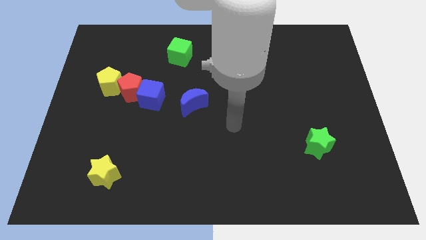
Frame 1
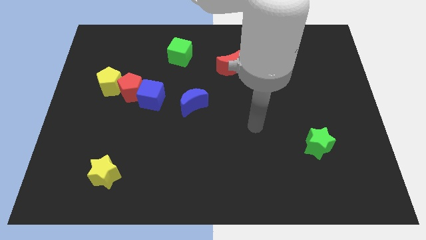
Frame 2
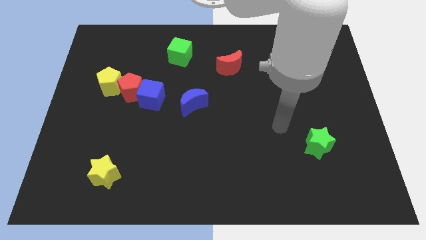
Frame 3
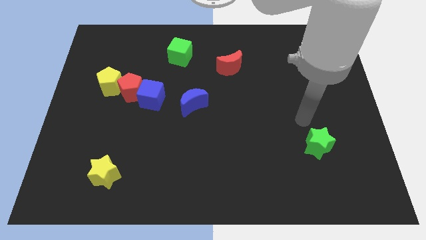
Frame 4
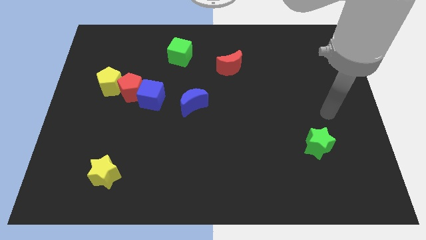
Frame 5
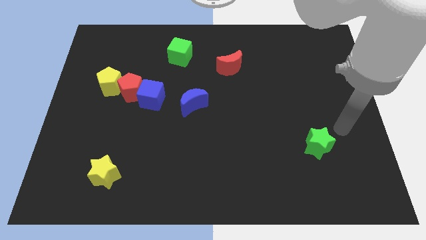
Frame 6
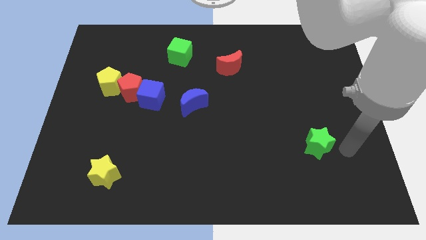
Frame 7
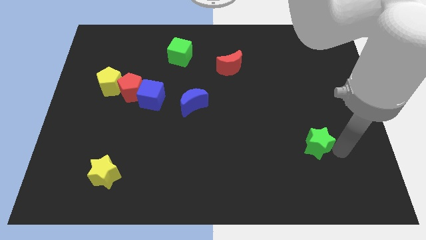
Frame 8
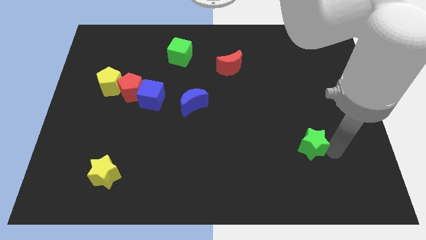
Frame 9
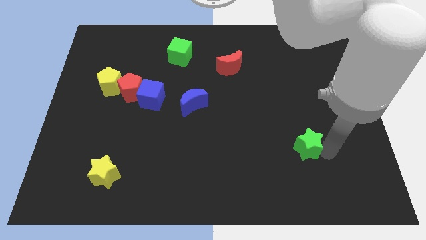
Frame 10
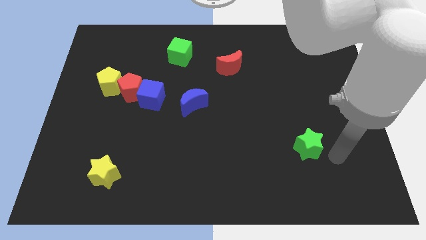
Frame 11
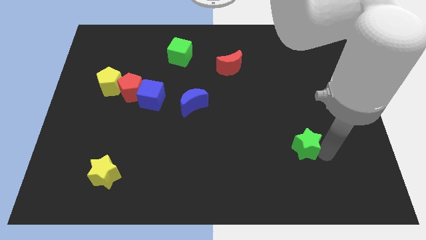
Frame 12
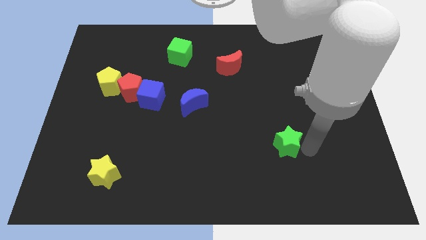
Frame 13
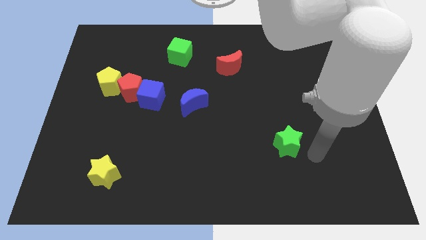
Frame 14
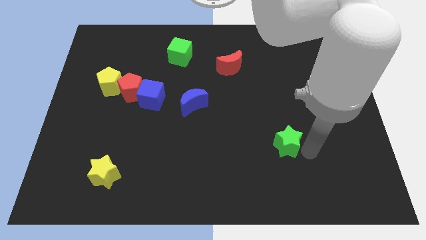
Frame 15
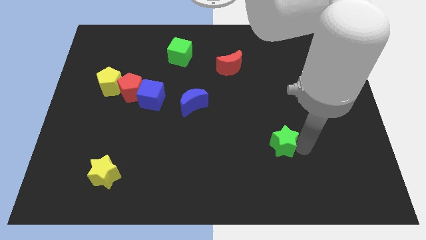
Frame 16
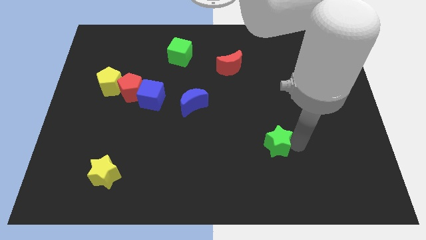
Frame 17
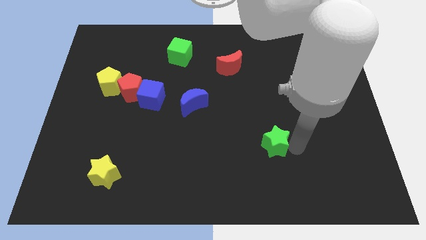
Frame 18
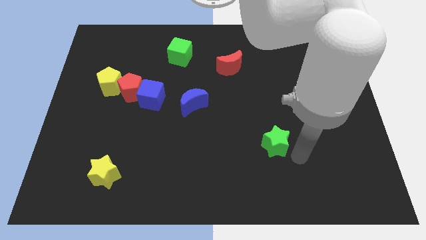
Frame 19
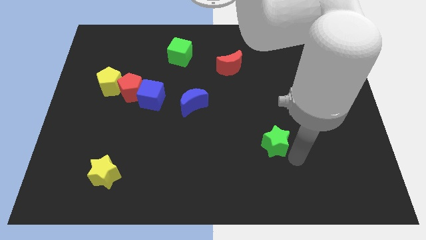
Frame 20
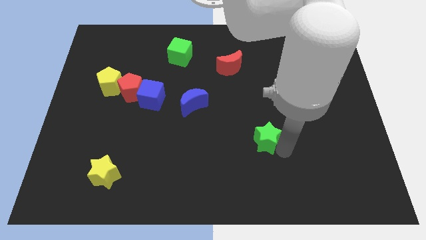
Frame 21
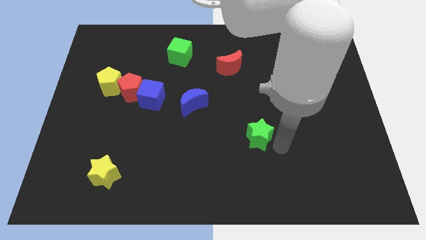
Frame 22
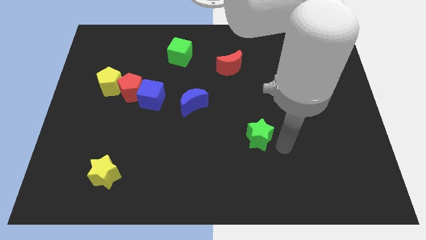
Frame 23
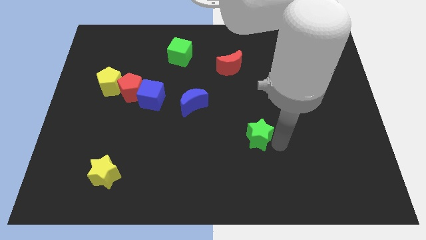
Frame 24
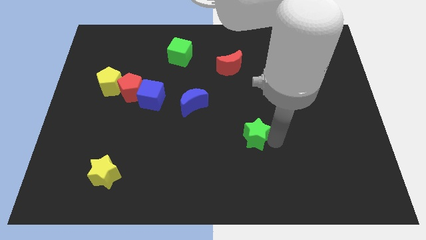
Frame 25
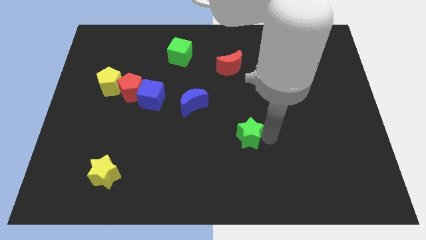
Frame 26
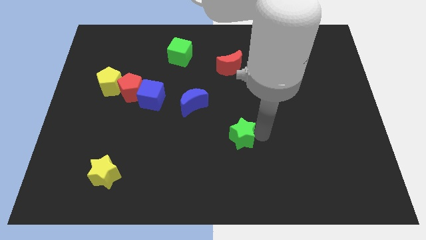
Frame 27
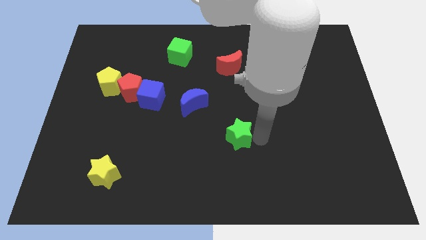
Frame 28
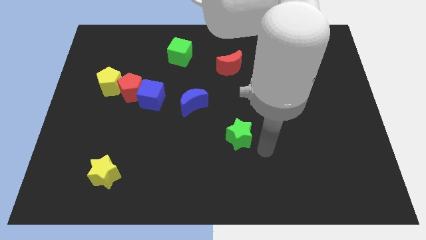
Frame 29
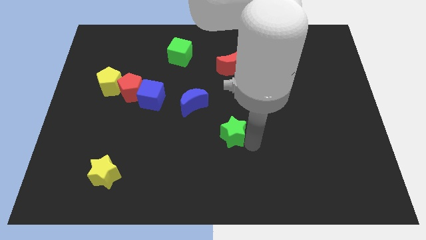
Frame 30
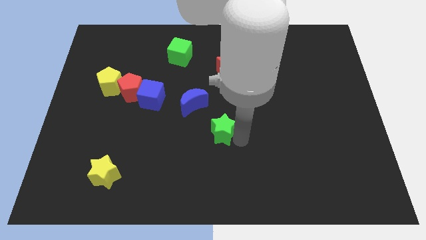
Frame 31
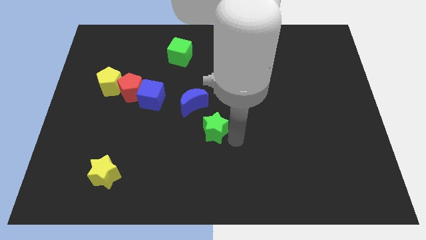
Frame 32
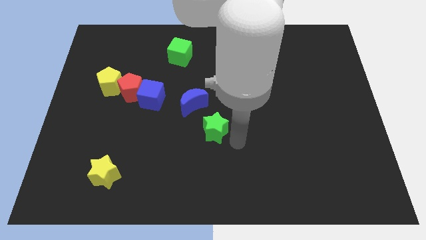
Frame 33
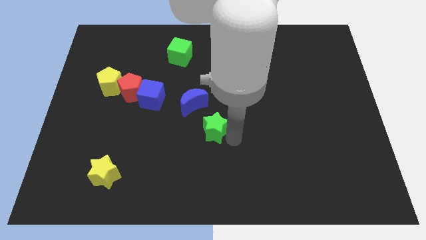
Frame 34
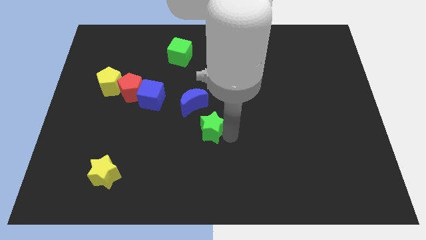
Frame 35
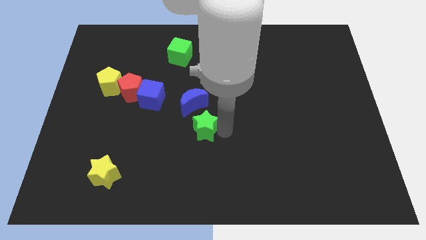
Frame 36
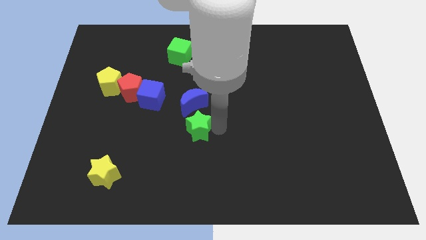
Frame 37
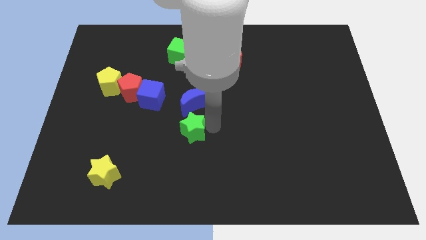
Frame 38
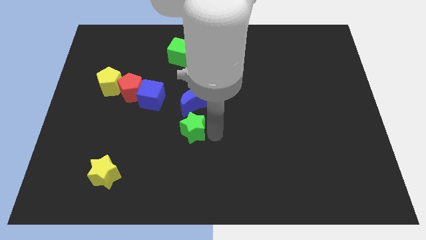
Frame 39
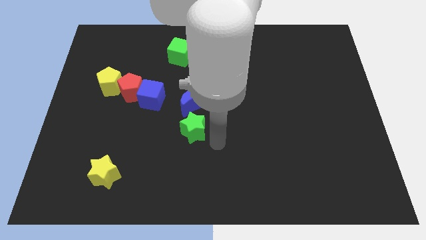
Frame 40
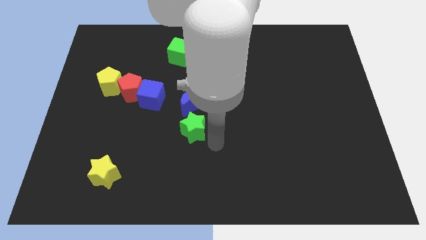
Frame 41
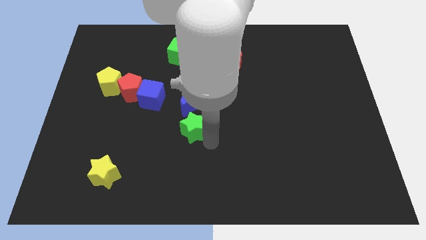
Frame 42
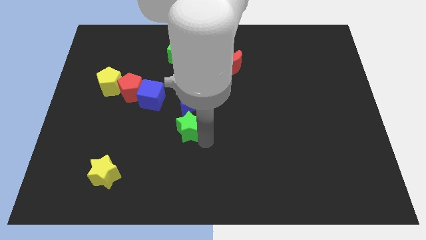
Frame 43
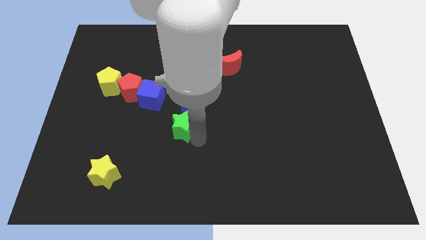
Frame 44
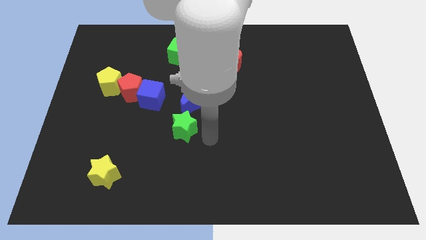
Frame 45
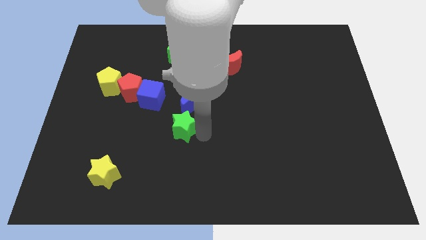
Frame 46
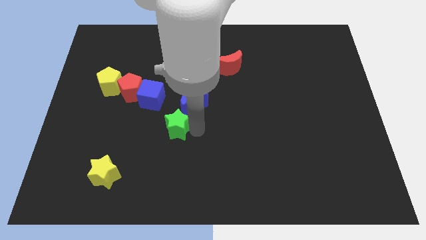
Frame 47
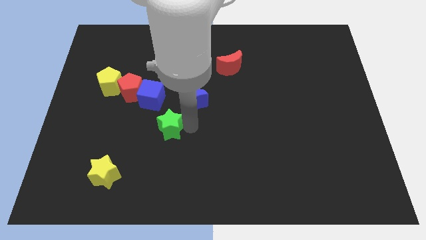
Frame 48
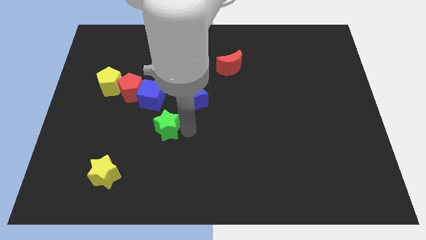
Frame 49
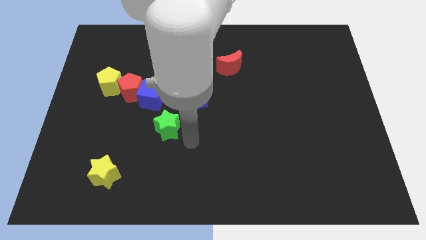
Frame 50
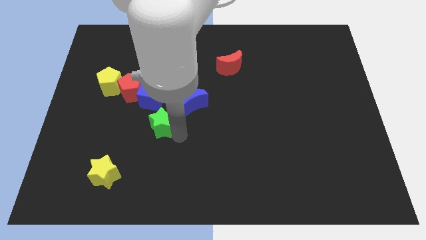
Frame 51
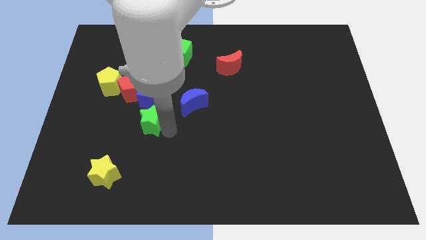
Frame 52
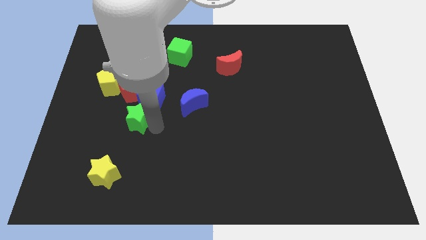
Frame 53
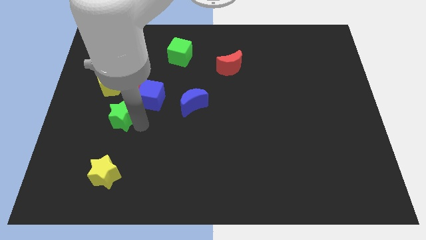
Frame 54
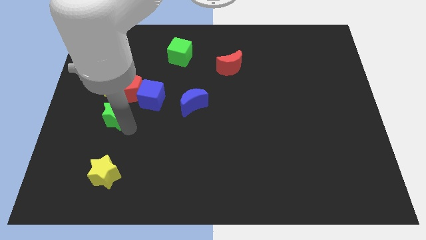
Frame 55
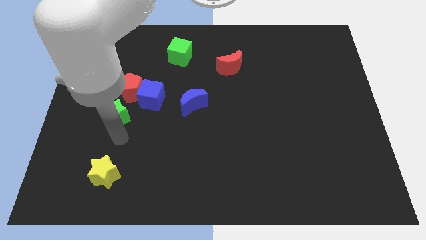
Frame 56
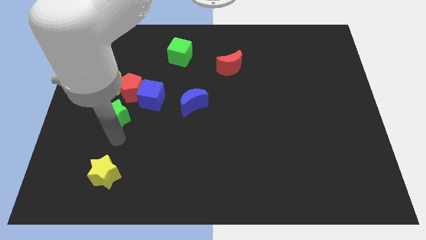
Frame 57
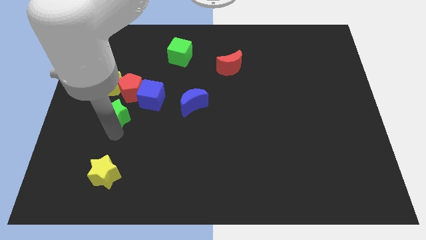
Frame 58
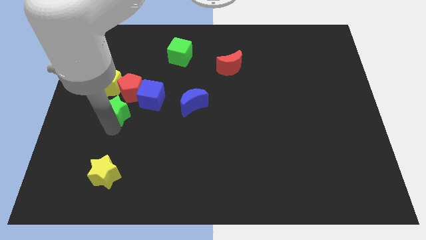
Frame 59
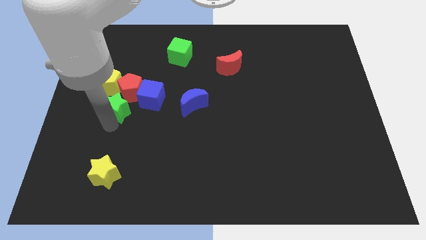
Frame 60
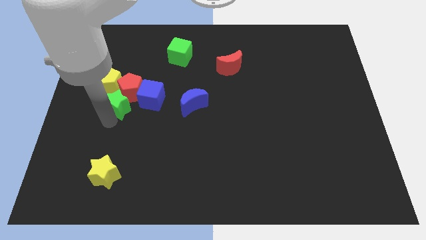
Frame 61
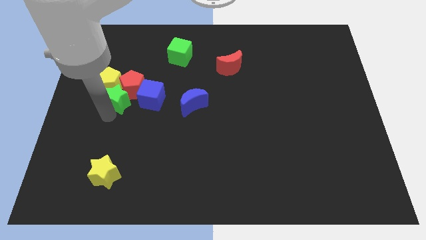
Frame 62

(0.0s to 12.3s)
push the green star to the yellow pentagon
